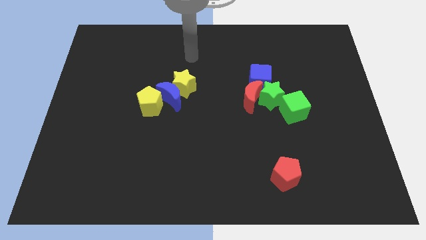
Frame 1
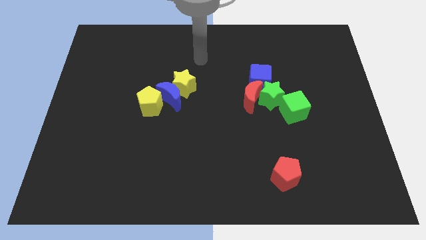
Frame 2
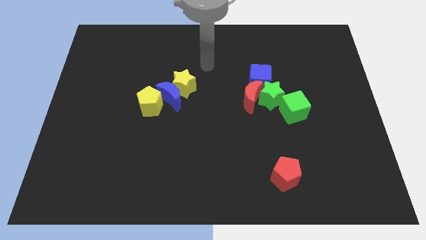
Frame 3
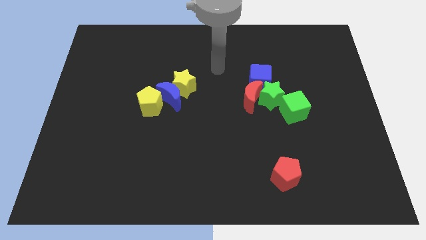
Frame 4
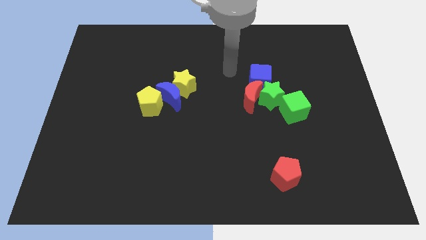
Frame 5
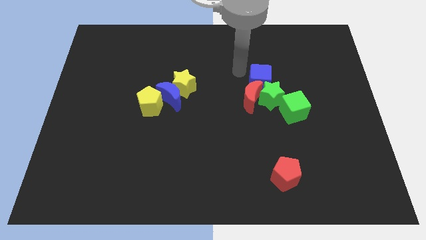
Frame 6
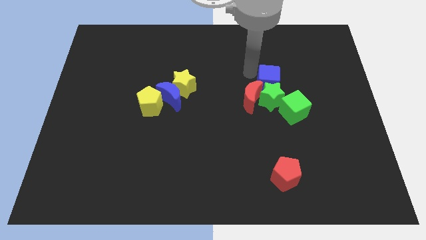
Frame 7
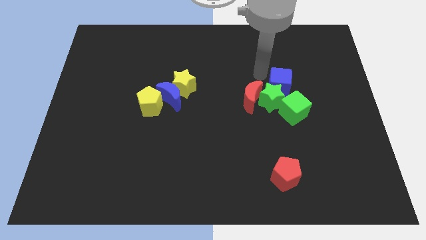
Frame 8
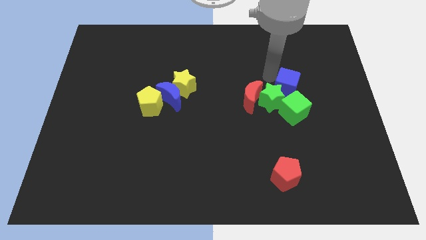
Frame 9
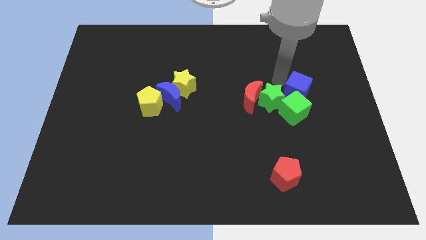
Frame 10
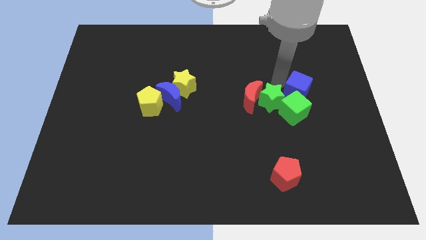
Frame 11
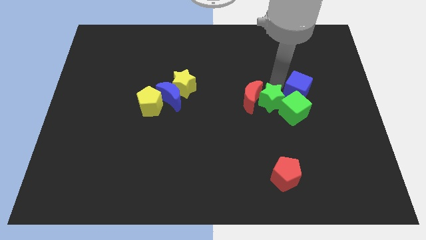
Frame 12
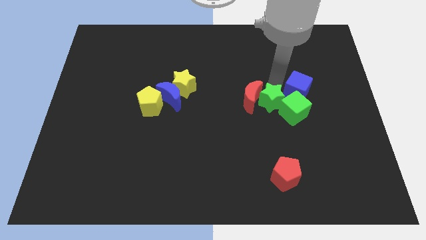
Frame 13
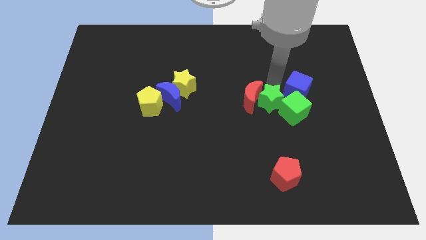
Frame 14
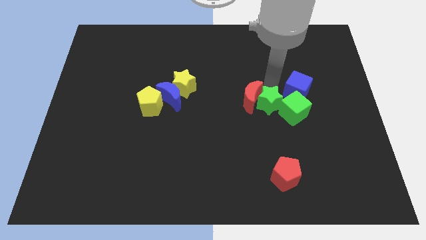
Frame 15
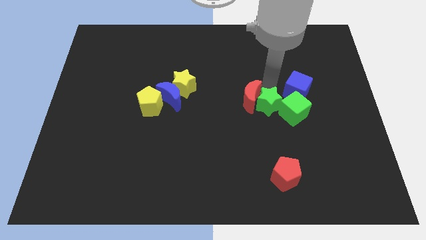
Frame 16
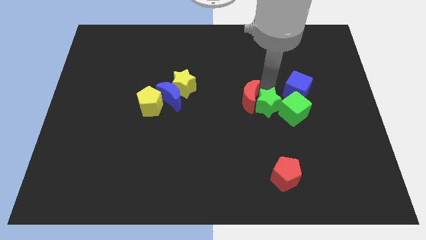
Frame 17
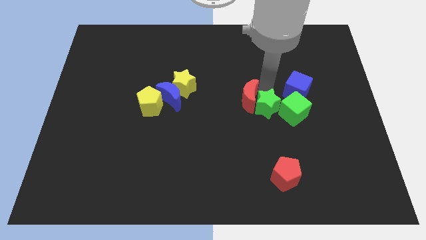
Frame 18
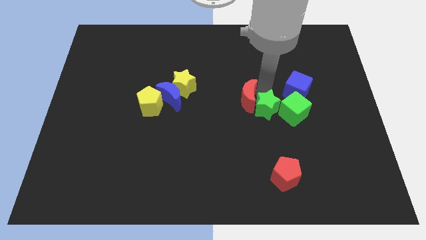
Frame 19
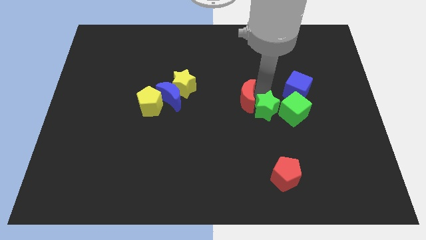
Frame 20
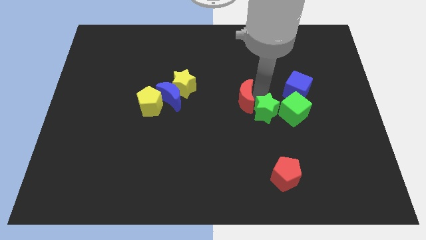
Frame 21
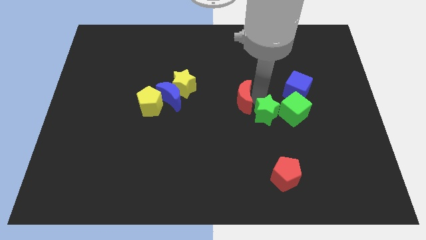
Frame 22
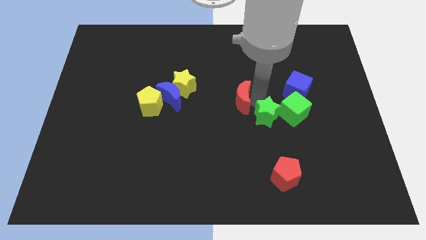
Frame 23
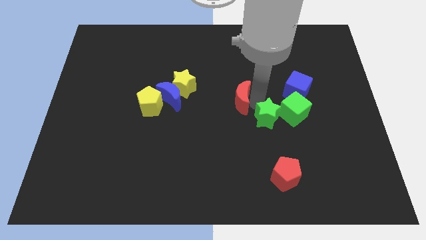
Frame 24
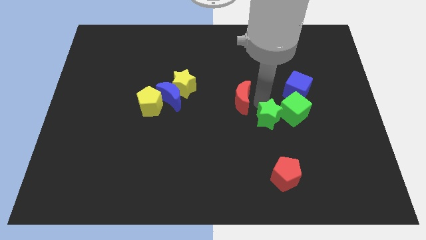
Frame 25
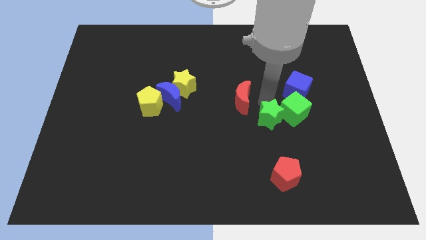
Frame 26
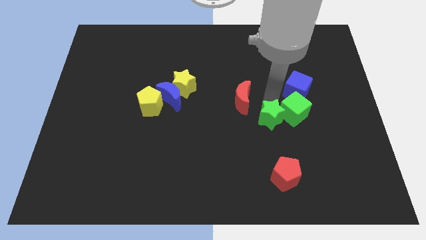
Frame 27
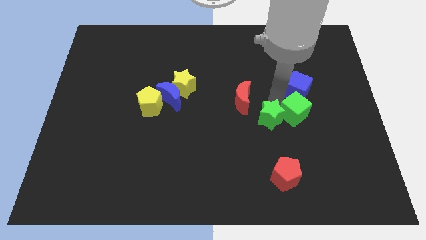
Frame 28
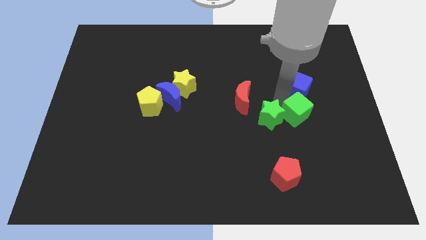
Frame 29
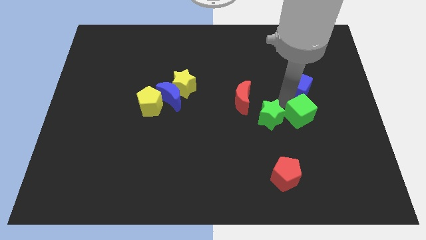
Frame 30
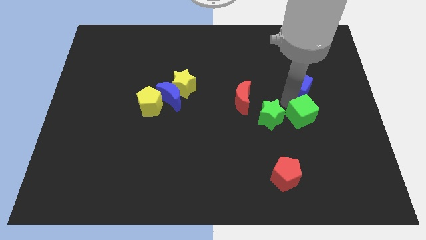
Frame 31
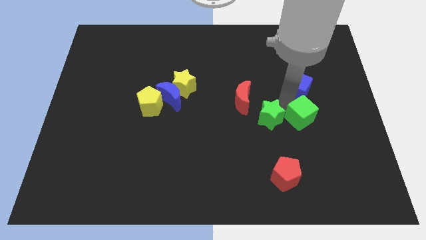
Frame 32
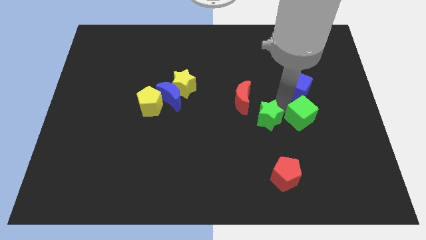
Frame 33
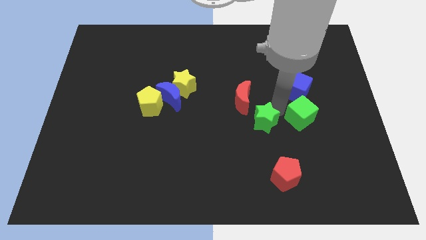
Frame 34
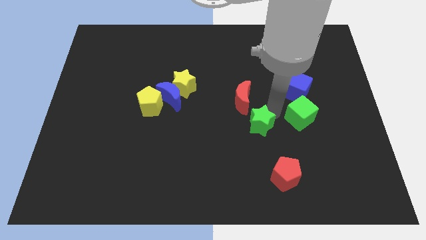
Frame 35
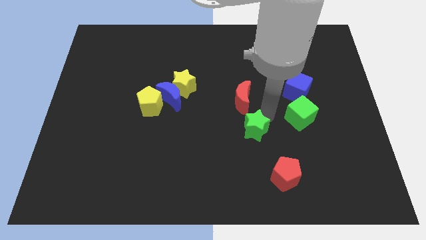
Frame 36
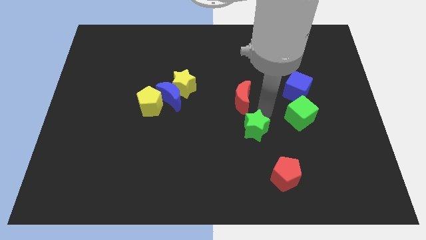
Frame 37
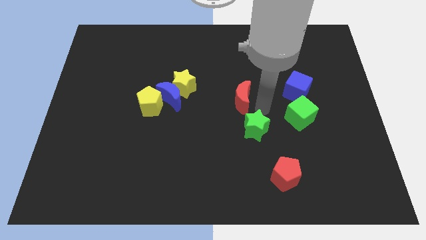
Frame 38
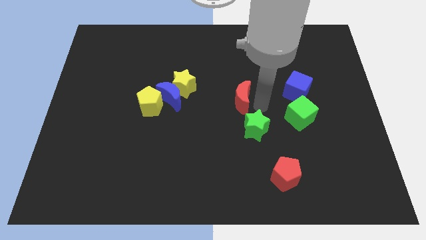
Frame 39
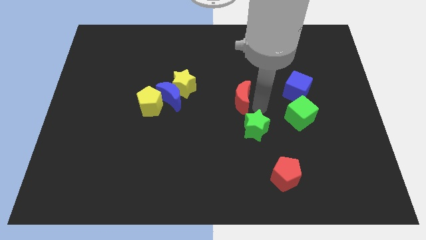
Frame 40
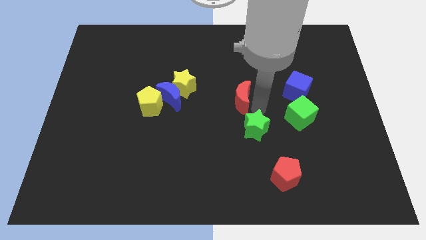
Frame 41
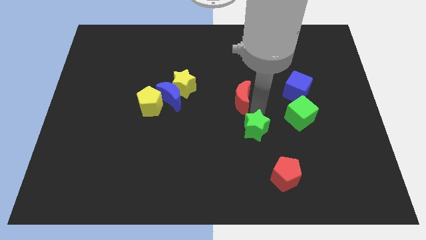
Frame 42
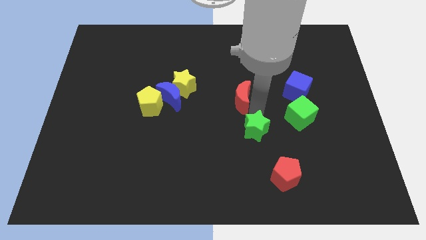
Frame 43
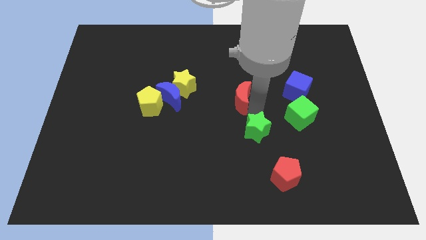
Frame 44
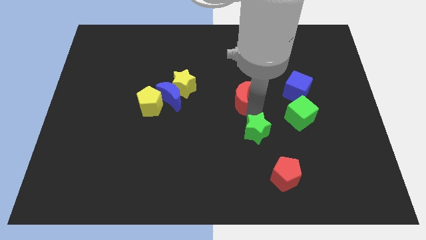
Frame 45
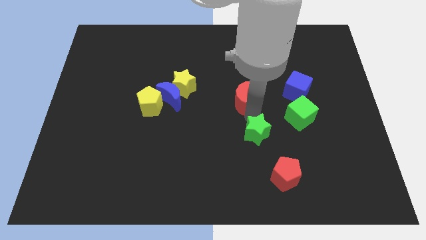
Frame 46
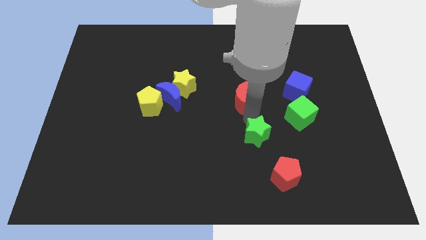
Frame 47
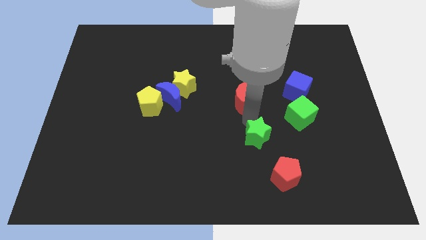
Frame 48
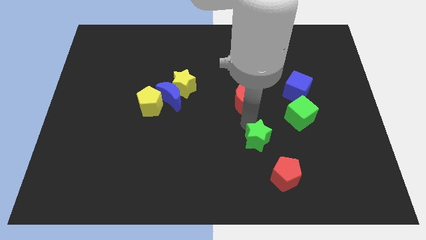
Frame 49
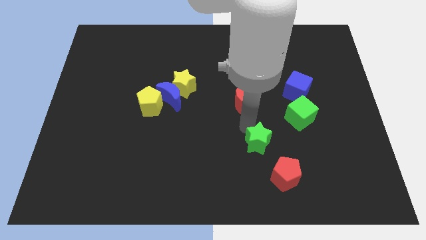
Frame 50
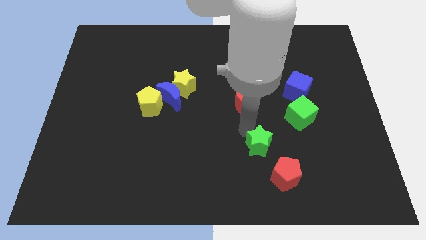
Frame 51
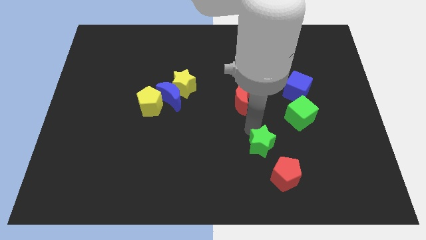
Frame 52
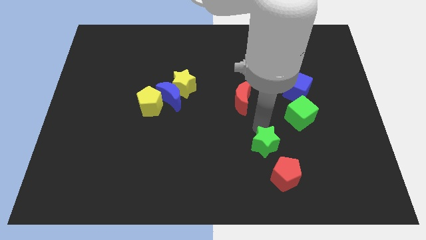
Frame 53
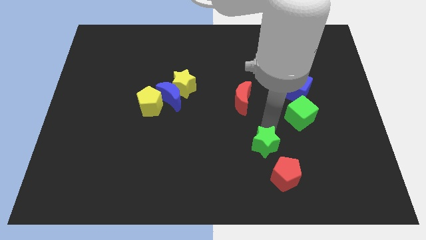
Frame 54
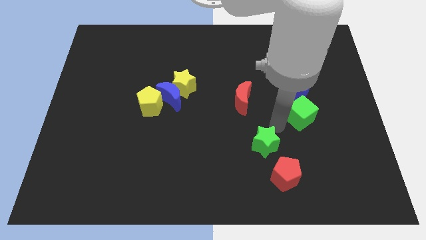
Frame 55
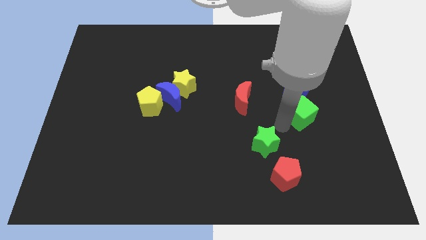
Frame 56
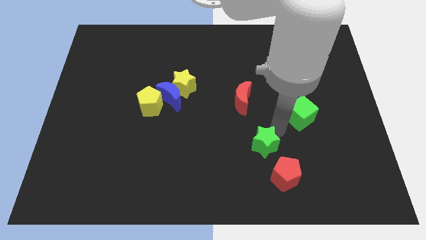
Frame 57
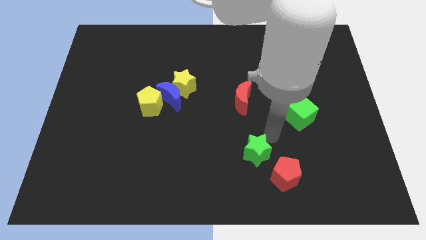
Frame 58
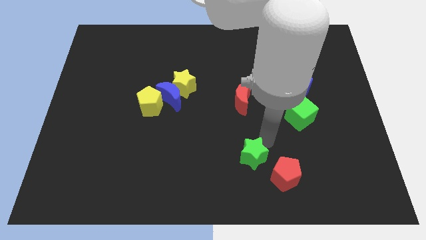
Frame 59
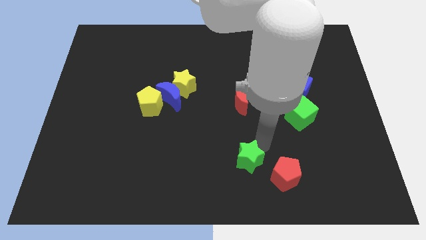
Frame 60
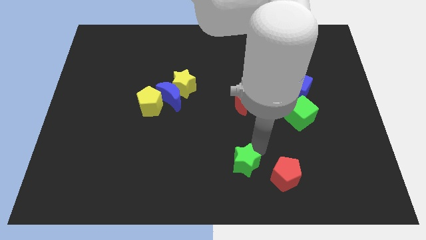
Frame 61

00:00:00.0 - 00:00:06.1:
move the green star to the bottom
